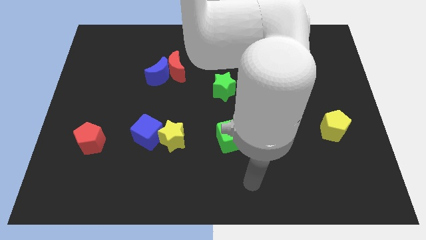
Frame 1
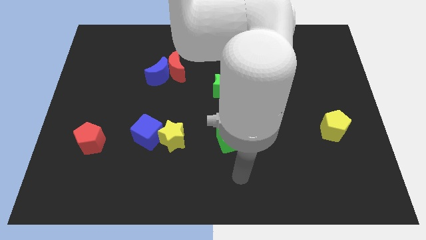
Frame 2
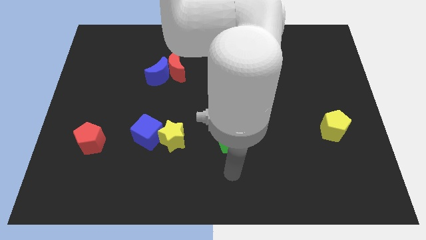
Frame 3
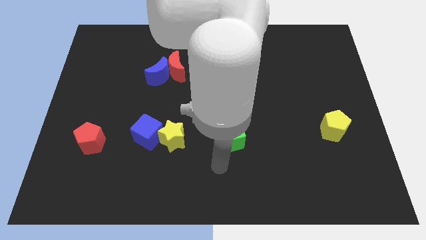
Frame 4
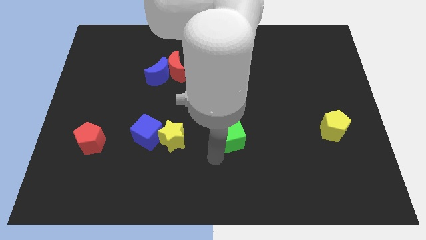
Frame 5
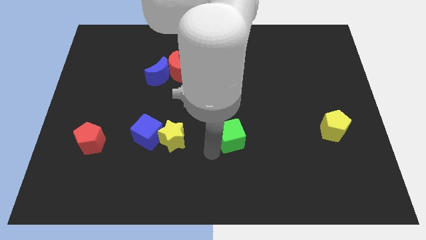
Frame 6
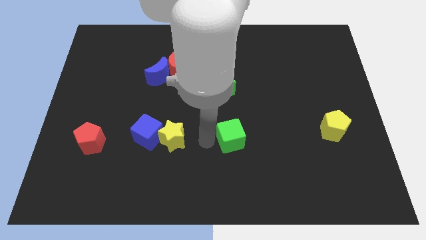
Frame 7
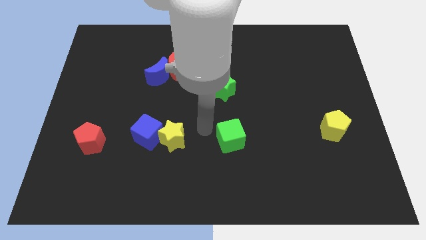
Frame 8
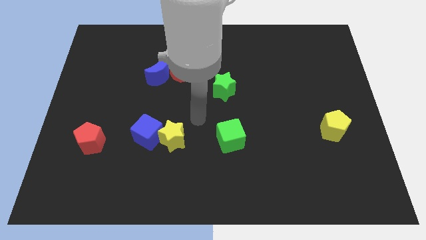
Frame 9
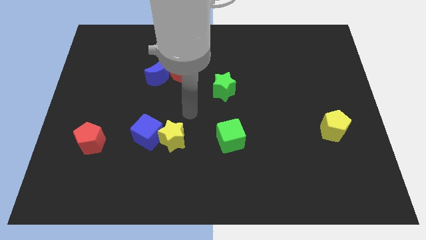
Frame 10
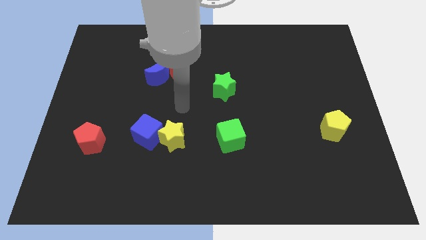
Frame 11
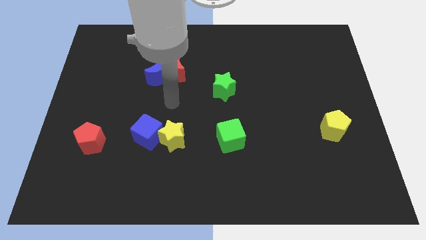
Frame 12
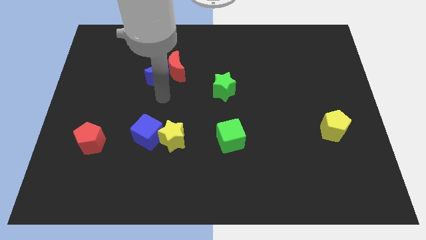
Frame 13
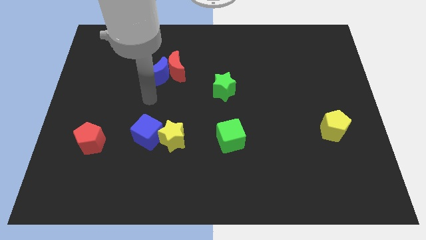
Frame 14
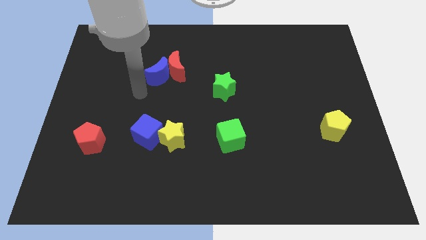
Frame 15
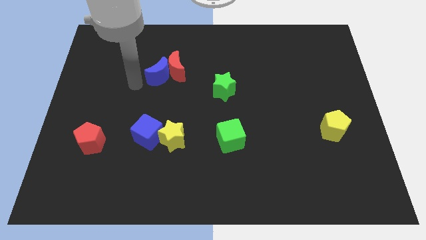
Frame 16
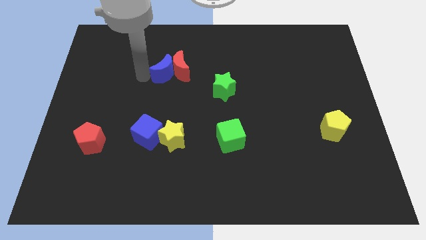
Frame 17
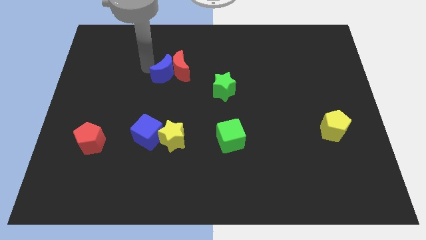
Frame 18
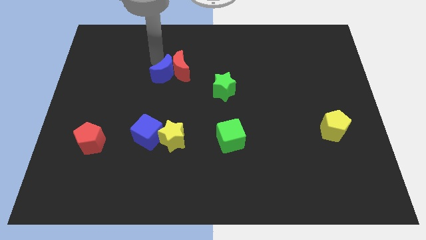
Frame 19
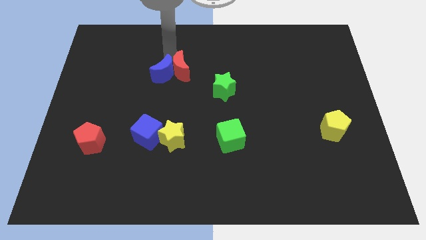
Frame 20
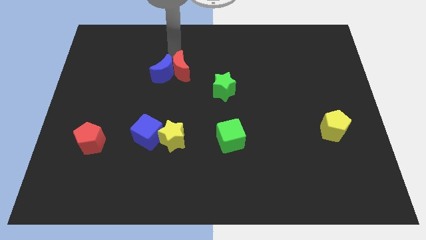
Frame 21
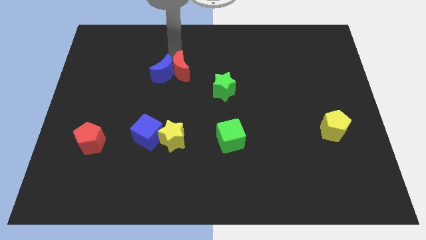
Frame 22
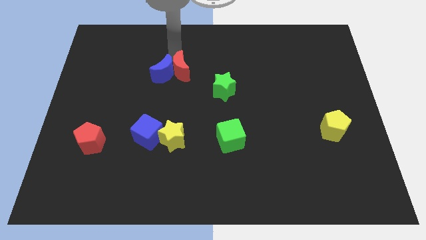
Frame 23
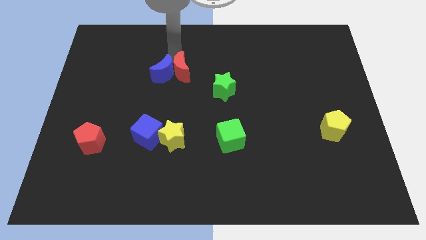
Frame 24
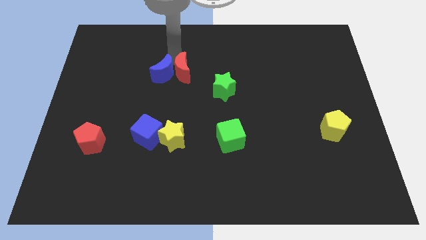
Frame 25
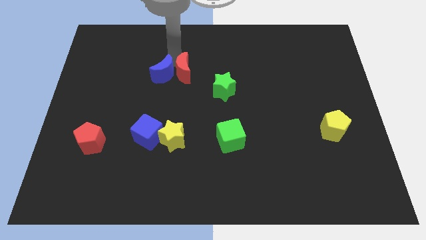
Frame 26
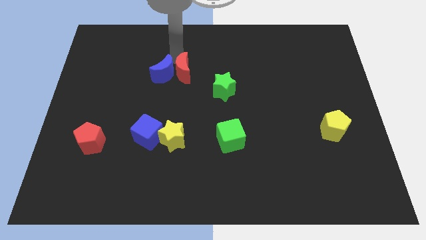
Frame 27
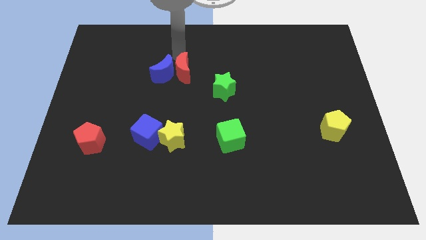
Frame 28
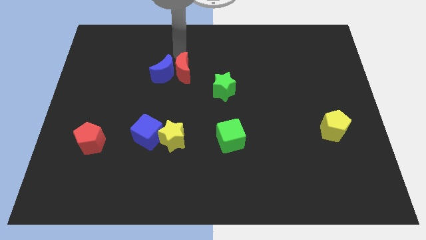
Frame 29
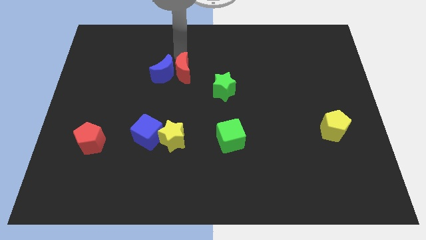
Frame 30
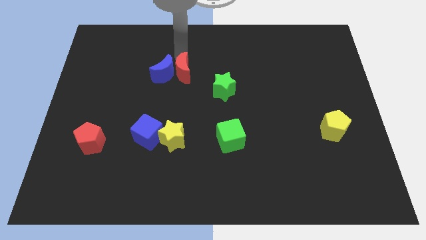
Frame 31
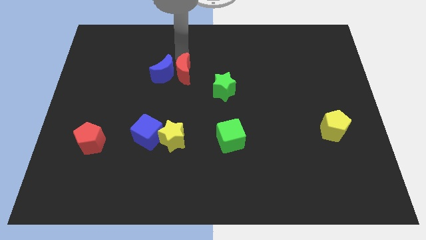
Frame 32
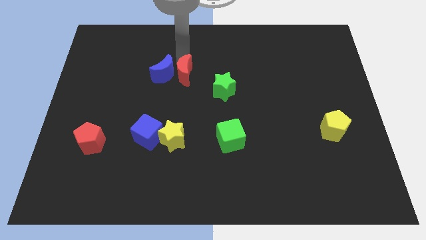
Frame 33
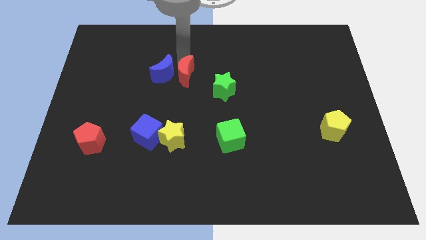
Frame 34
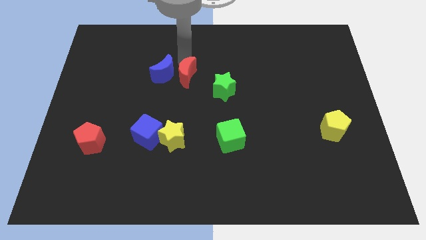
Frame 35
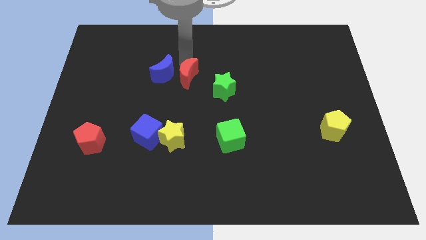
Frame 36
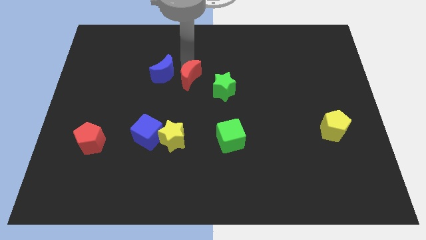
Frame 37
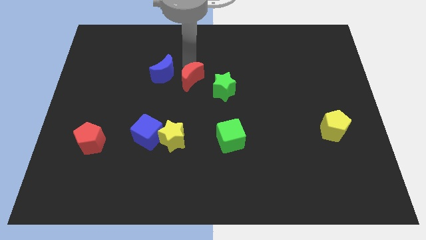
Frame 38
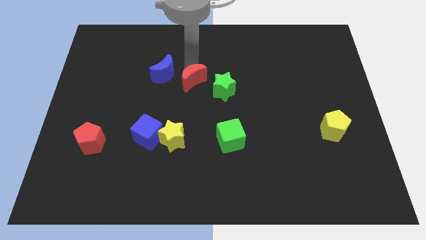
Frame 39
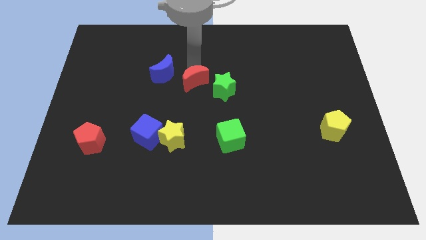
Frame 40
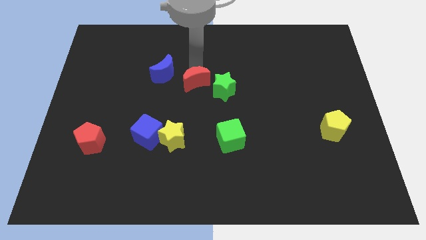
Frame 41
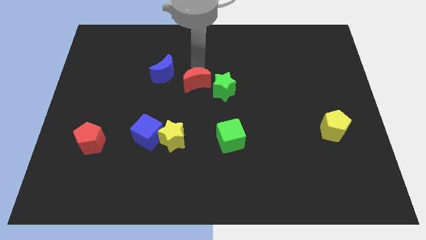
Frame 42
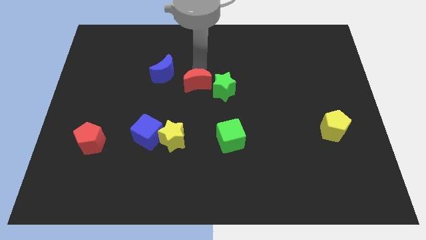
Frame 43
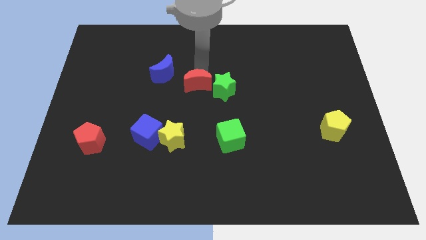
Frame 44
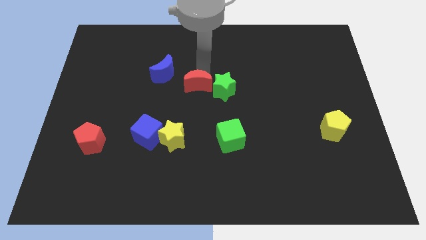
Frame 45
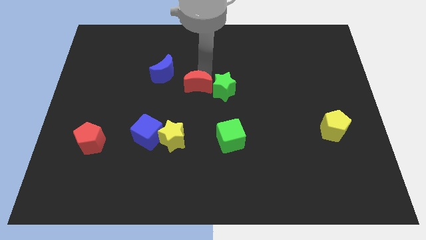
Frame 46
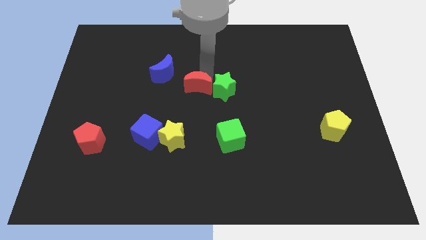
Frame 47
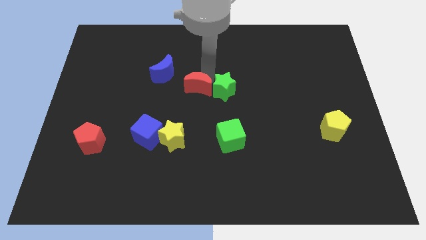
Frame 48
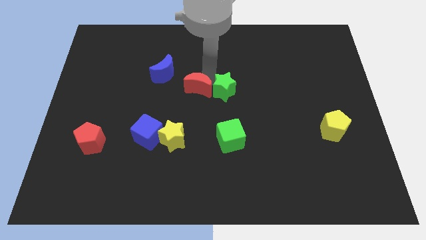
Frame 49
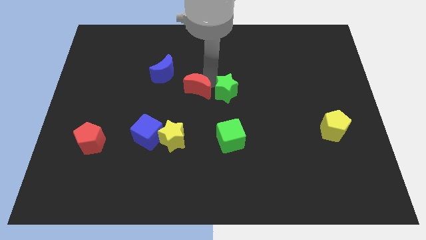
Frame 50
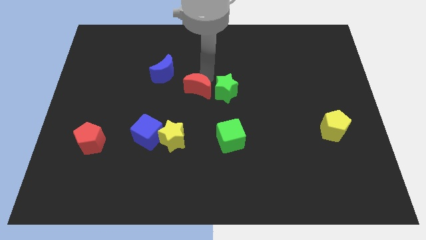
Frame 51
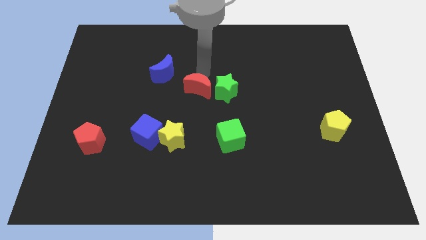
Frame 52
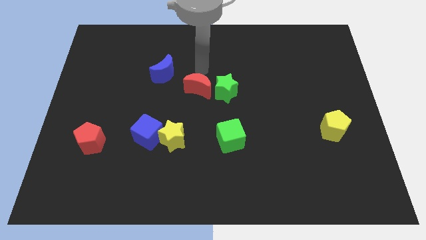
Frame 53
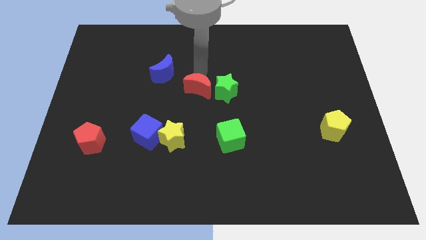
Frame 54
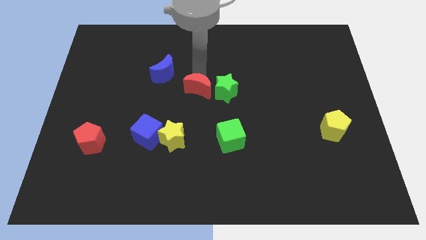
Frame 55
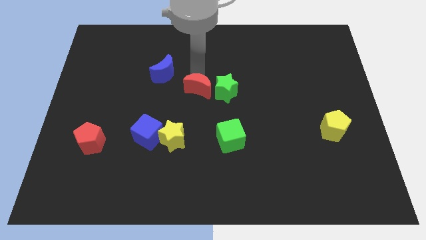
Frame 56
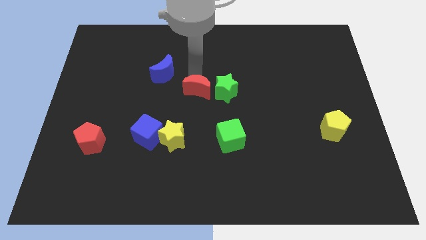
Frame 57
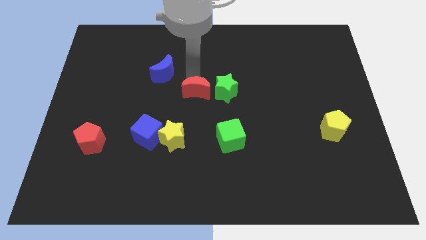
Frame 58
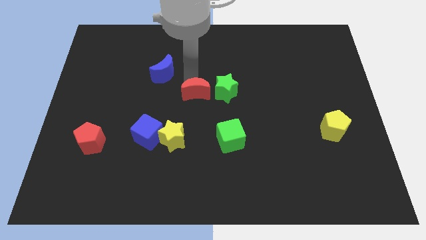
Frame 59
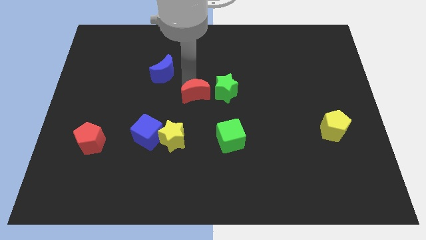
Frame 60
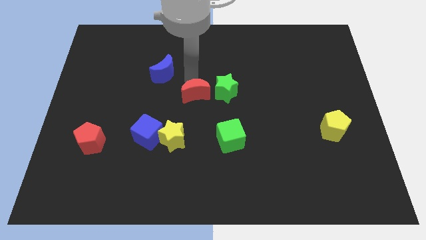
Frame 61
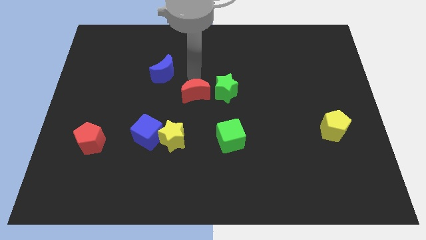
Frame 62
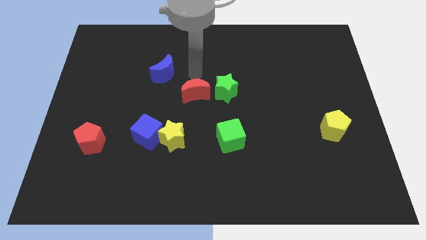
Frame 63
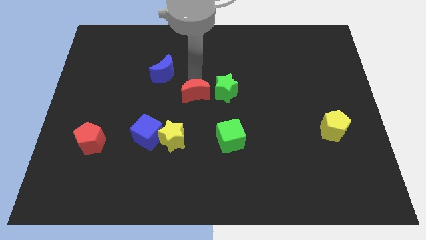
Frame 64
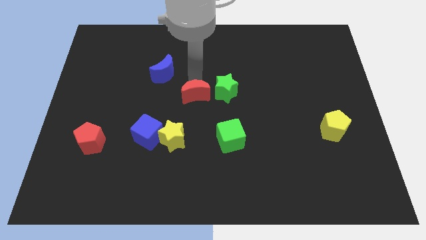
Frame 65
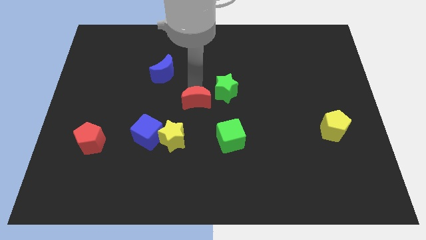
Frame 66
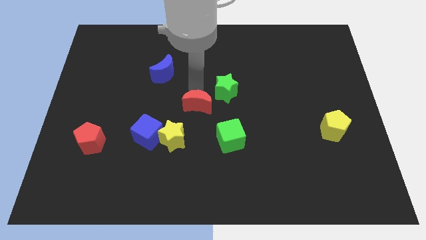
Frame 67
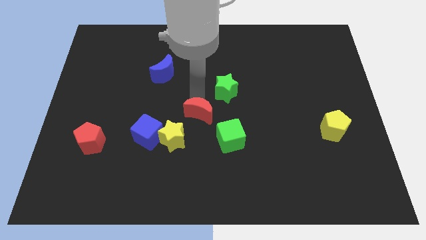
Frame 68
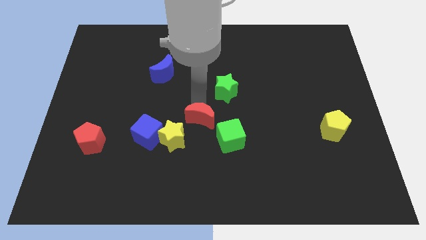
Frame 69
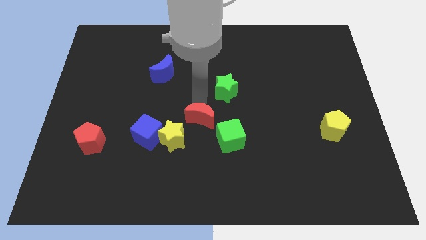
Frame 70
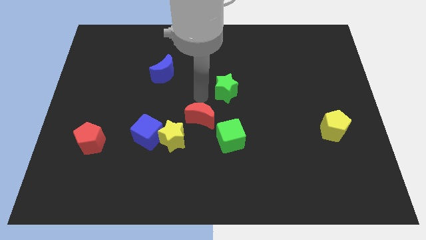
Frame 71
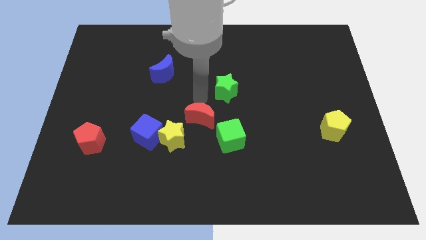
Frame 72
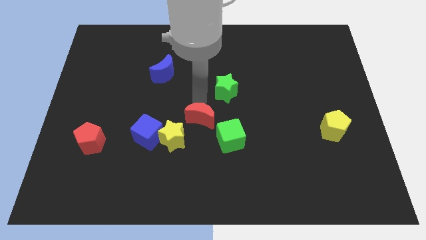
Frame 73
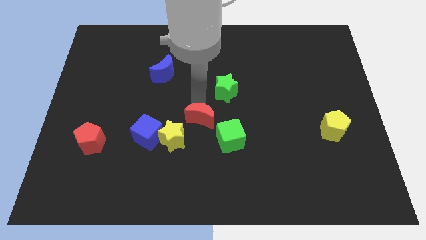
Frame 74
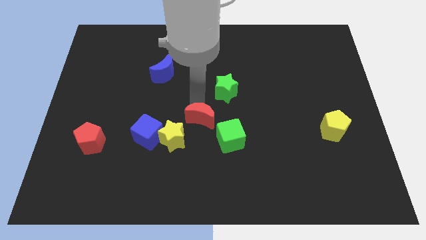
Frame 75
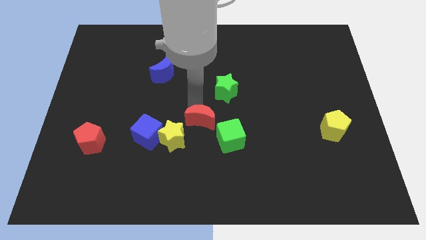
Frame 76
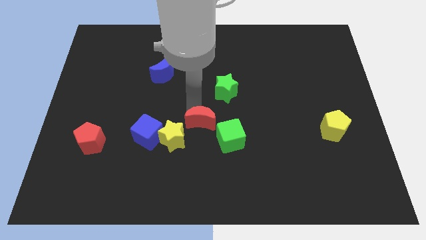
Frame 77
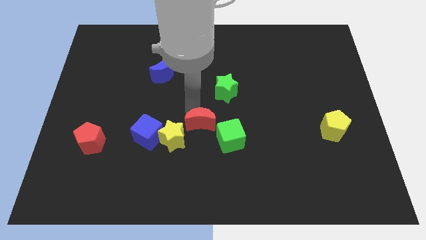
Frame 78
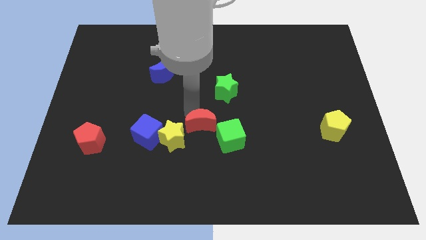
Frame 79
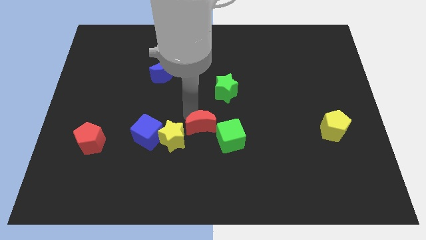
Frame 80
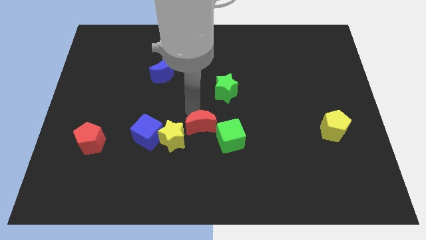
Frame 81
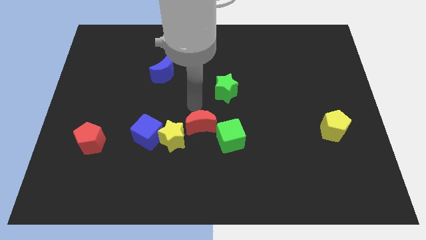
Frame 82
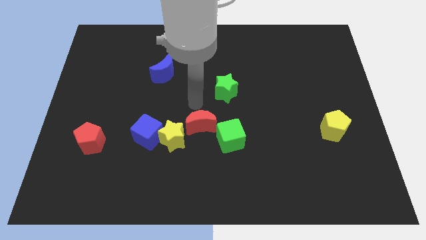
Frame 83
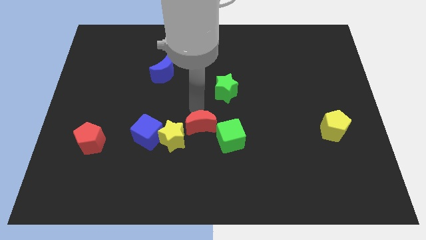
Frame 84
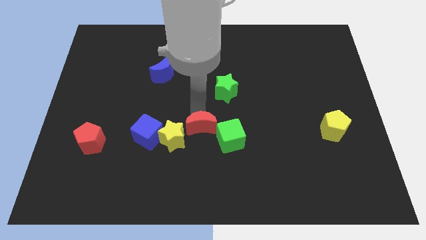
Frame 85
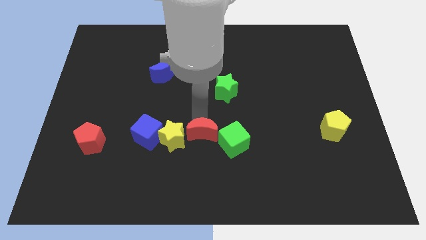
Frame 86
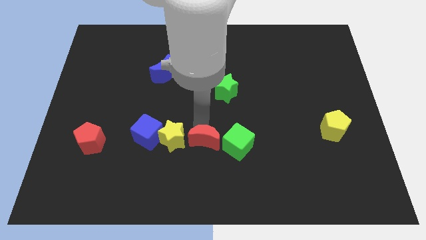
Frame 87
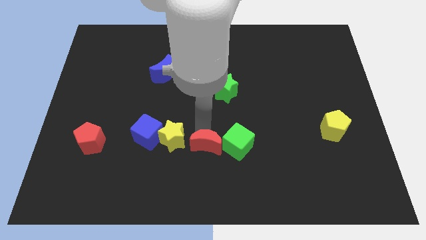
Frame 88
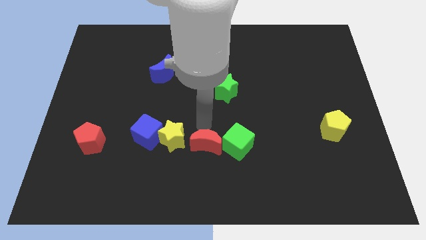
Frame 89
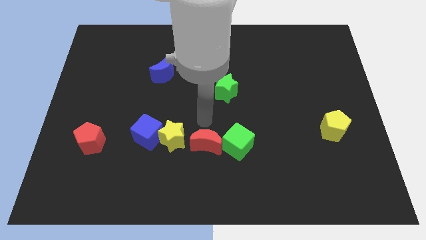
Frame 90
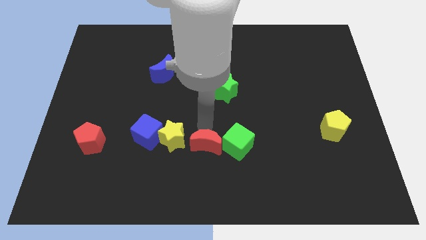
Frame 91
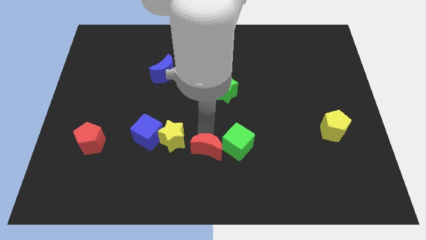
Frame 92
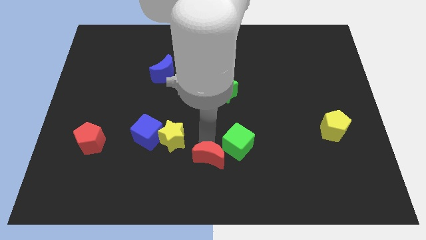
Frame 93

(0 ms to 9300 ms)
move the red moon to the bottom side
